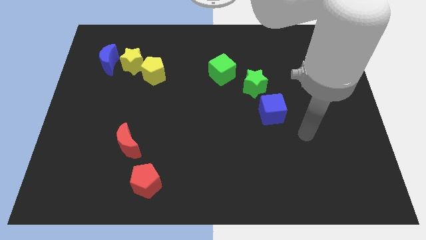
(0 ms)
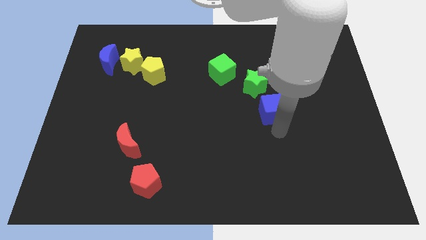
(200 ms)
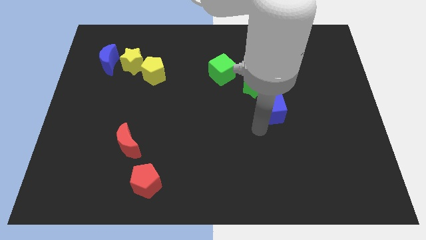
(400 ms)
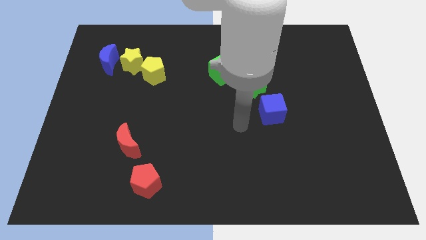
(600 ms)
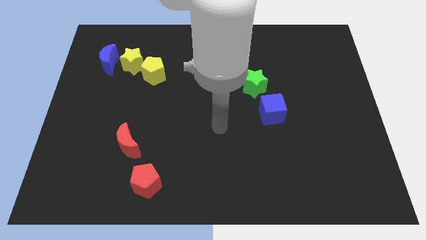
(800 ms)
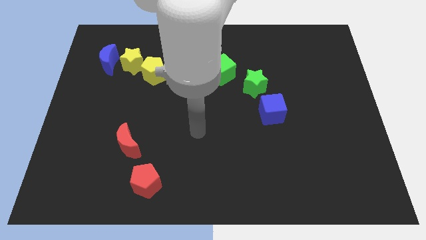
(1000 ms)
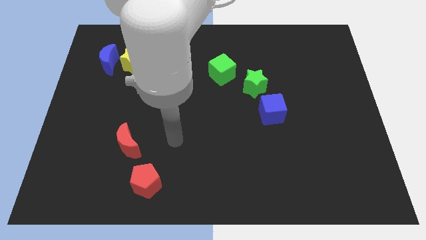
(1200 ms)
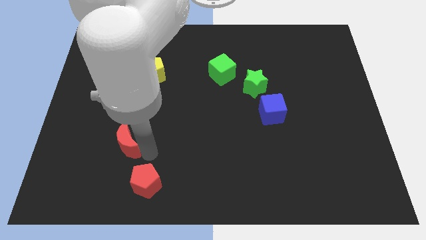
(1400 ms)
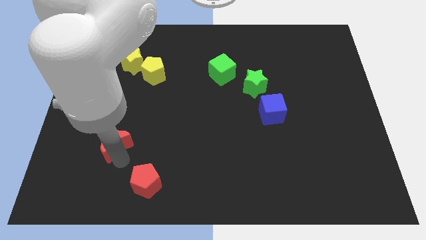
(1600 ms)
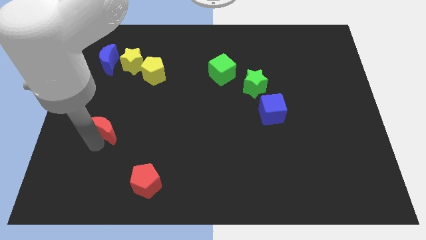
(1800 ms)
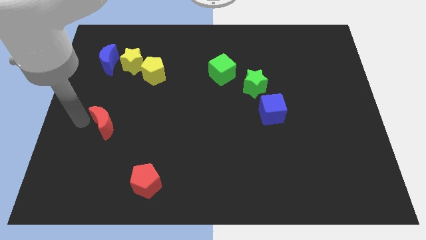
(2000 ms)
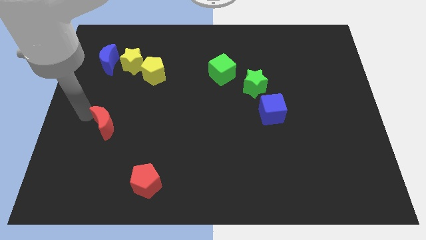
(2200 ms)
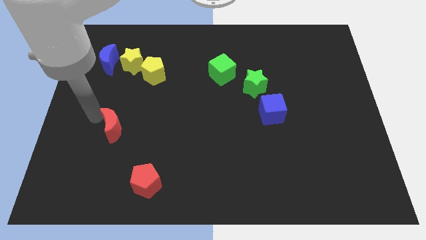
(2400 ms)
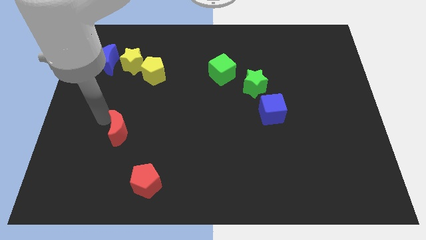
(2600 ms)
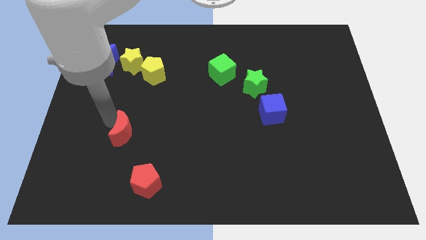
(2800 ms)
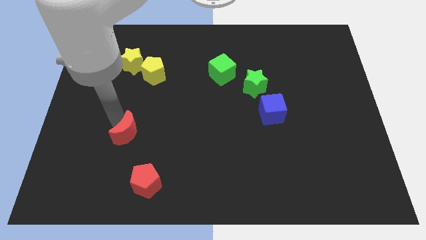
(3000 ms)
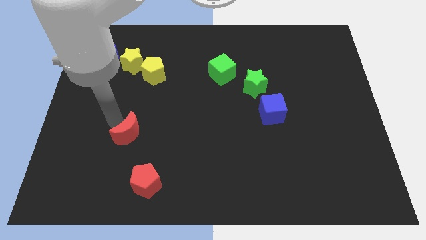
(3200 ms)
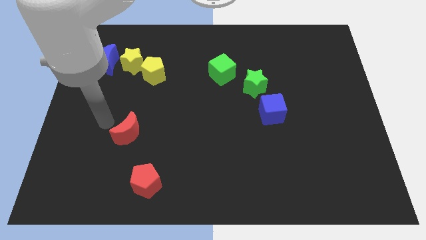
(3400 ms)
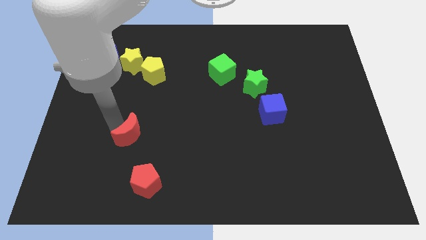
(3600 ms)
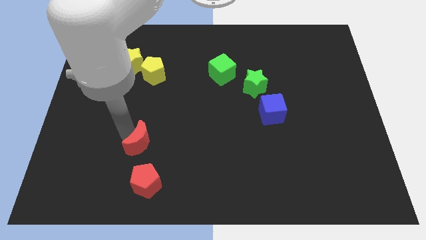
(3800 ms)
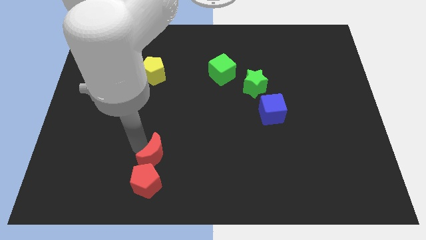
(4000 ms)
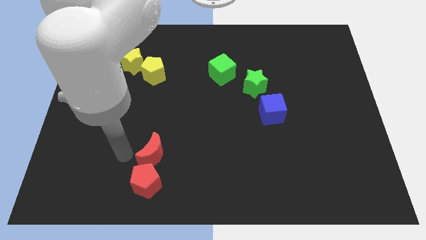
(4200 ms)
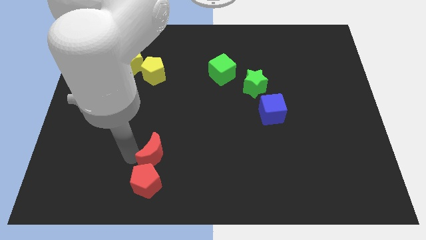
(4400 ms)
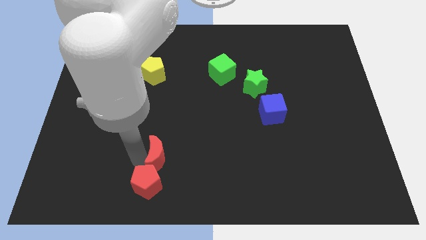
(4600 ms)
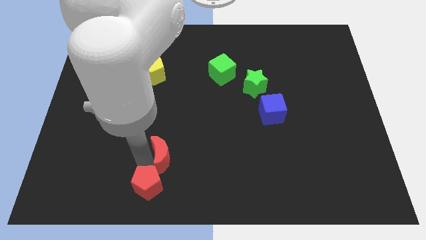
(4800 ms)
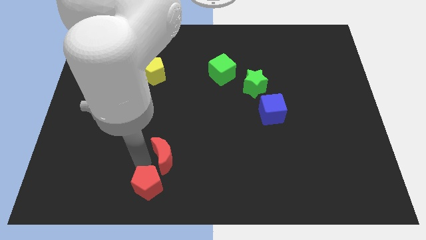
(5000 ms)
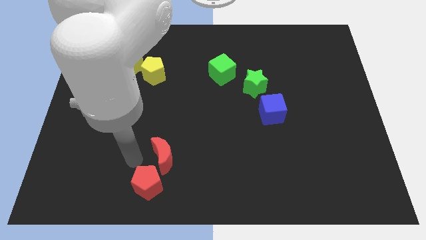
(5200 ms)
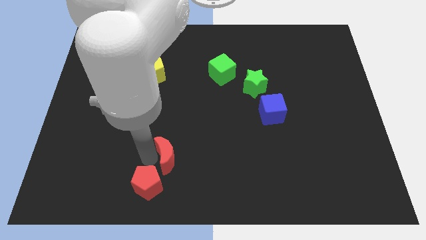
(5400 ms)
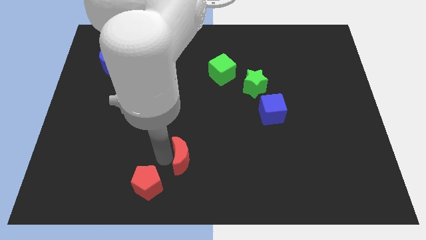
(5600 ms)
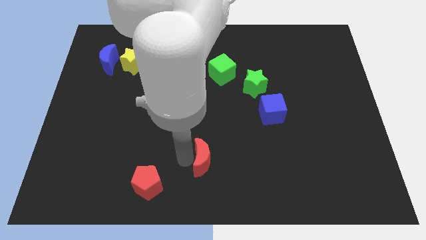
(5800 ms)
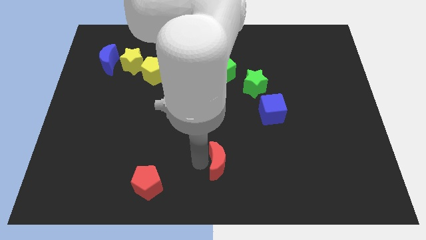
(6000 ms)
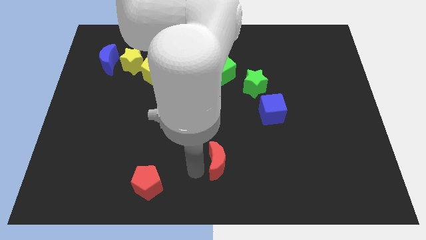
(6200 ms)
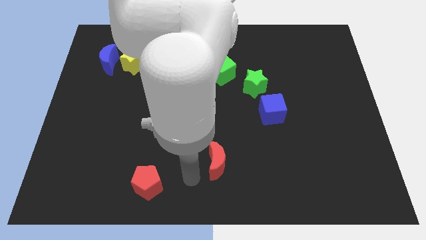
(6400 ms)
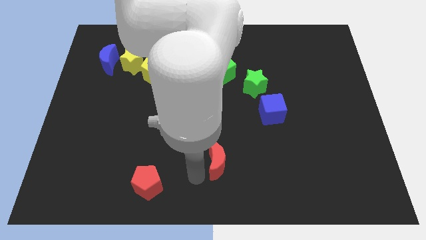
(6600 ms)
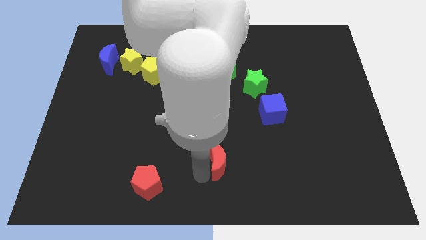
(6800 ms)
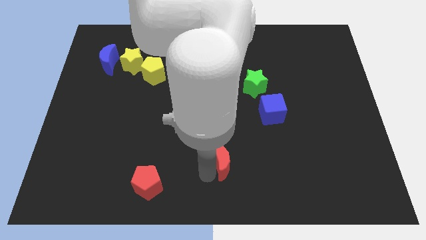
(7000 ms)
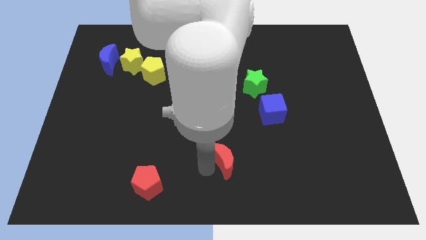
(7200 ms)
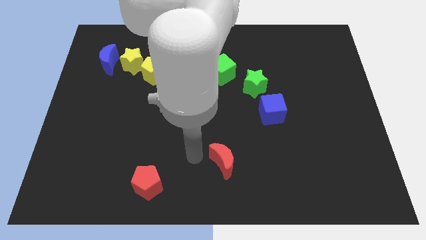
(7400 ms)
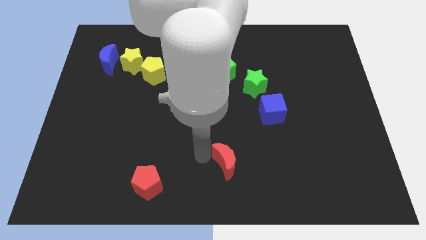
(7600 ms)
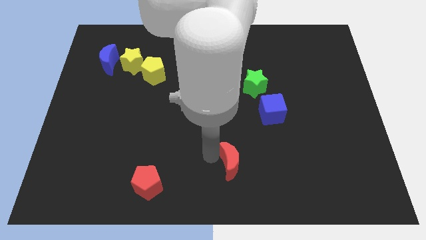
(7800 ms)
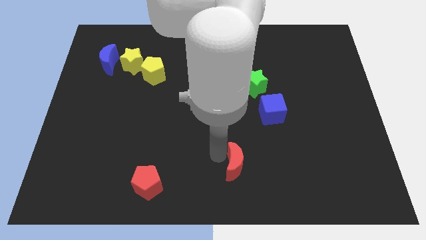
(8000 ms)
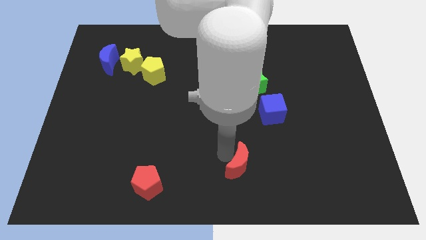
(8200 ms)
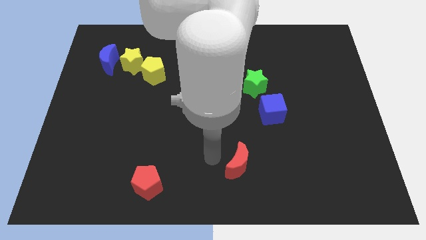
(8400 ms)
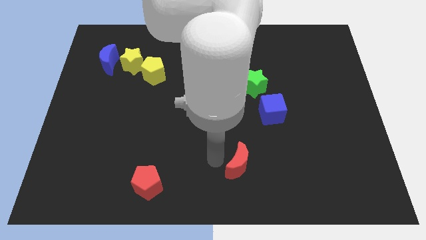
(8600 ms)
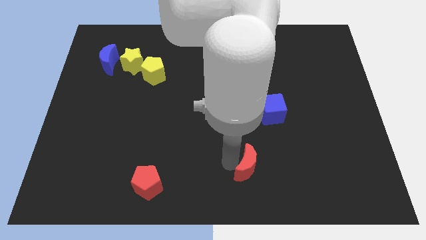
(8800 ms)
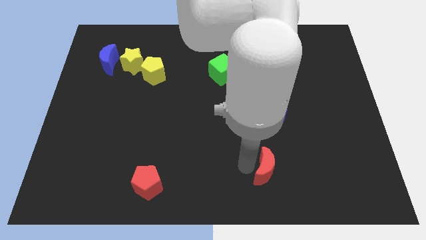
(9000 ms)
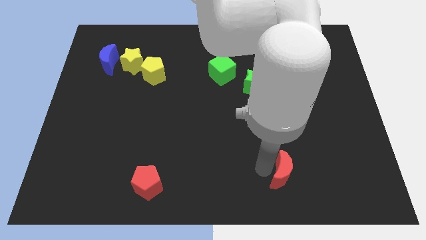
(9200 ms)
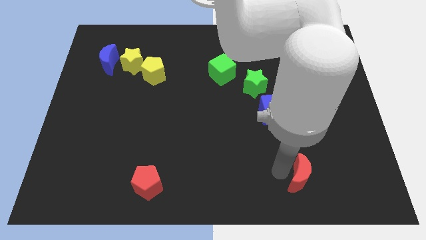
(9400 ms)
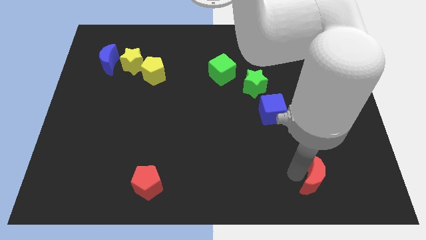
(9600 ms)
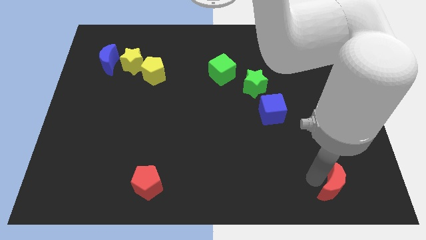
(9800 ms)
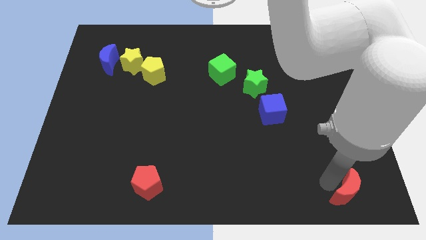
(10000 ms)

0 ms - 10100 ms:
slide the red moon to the bottom right corner
